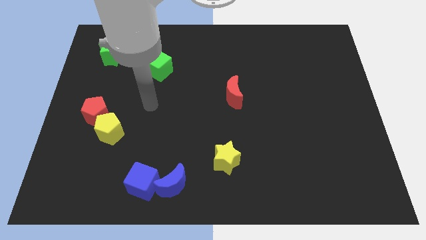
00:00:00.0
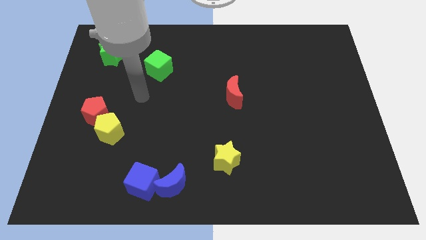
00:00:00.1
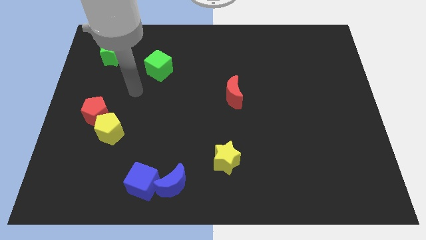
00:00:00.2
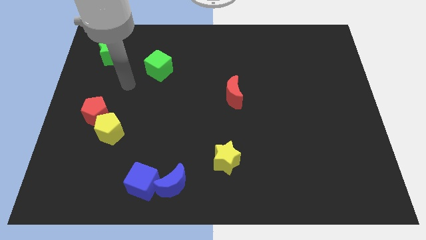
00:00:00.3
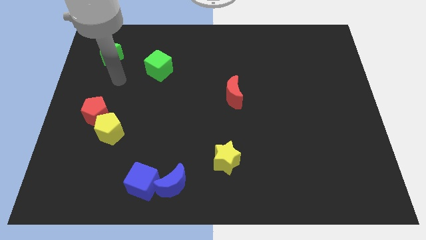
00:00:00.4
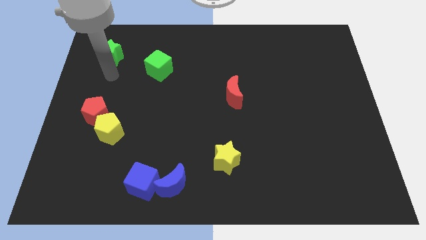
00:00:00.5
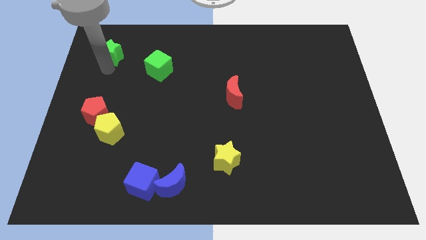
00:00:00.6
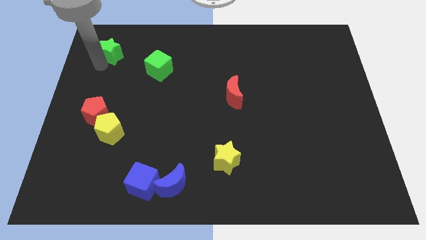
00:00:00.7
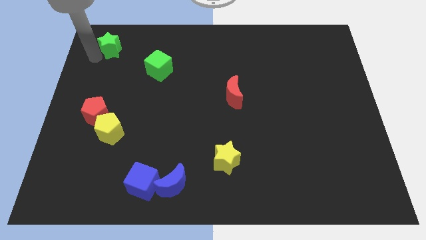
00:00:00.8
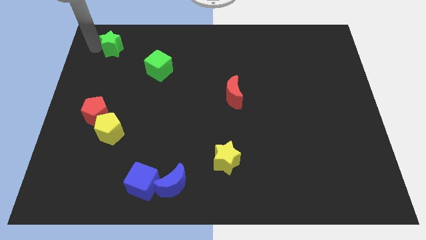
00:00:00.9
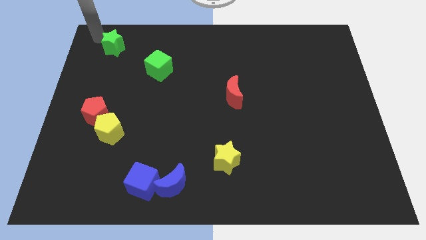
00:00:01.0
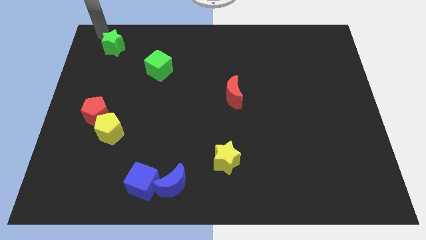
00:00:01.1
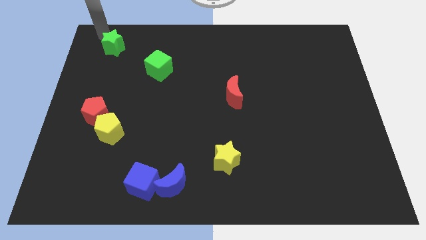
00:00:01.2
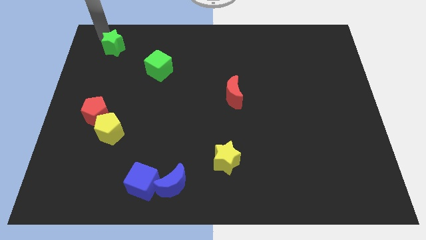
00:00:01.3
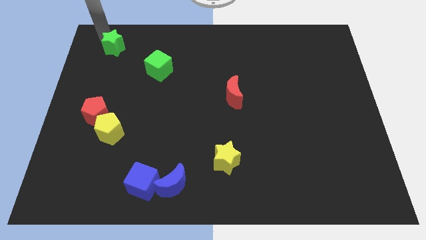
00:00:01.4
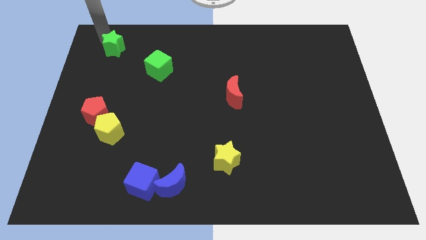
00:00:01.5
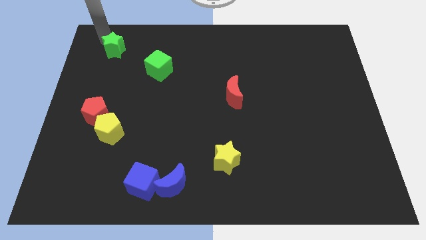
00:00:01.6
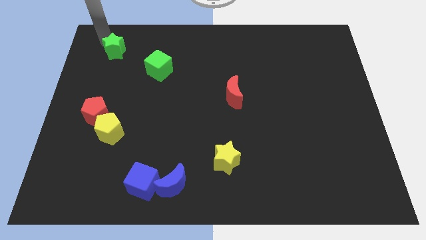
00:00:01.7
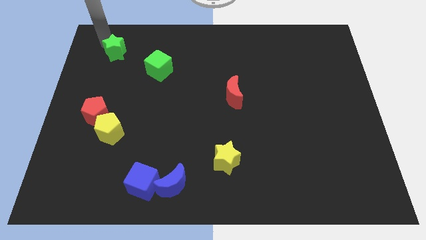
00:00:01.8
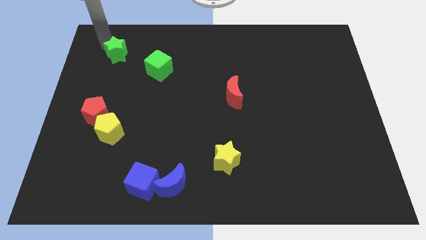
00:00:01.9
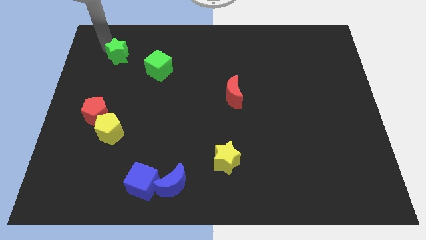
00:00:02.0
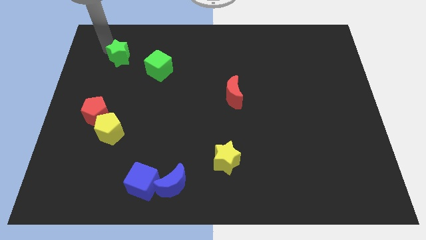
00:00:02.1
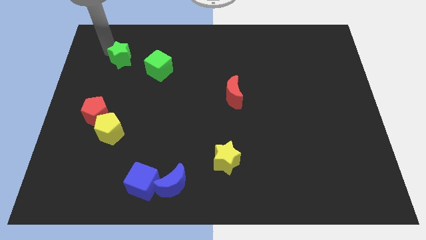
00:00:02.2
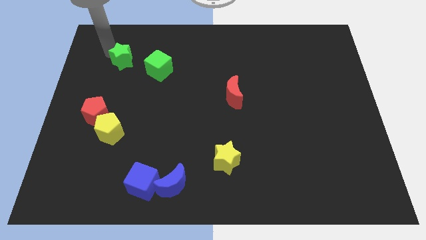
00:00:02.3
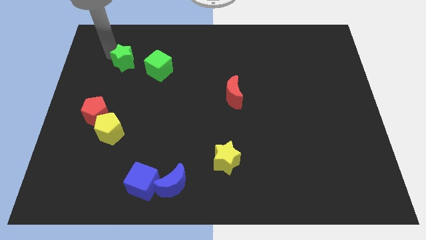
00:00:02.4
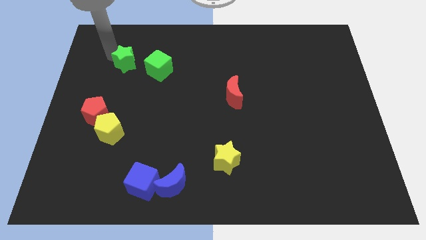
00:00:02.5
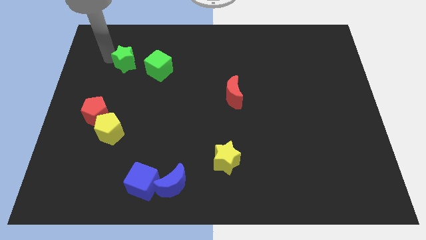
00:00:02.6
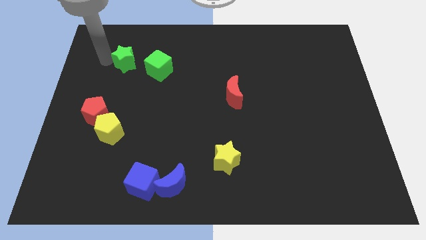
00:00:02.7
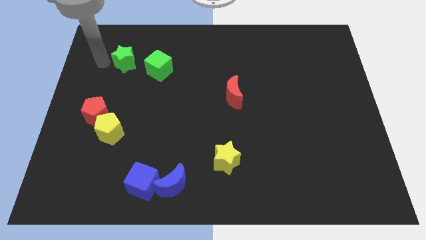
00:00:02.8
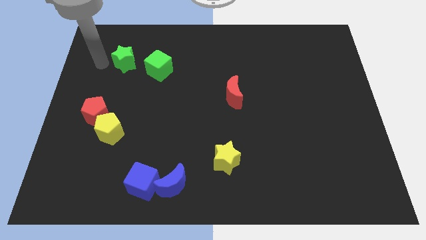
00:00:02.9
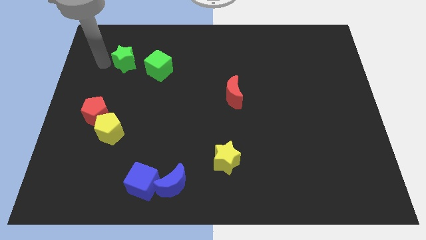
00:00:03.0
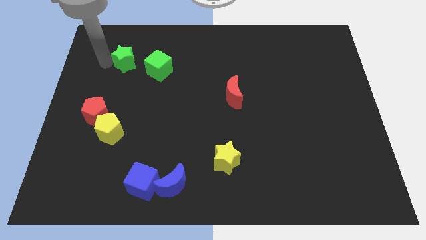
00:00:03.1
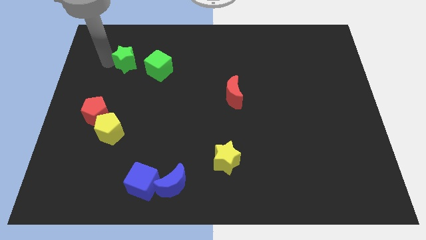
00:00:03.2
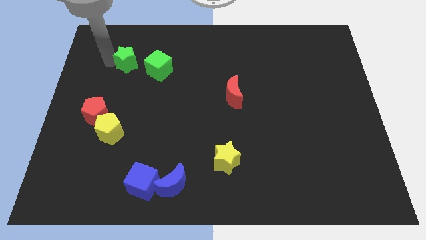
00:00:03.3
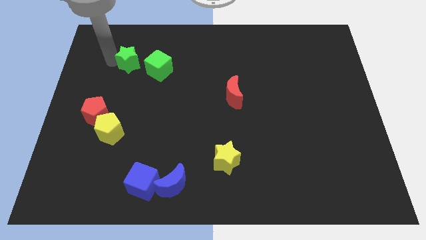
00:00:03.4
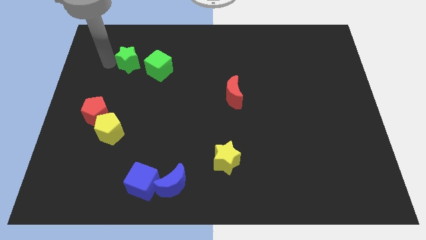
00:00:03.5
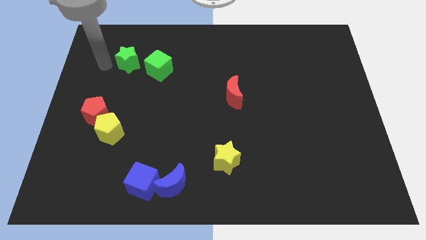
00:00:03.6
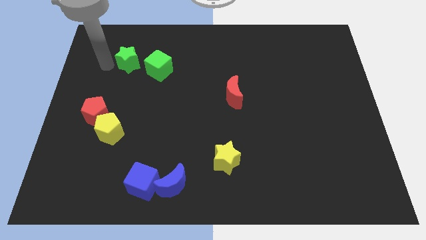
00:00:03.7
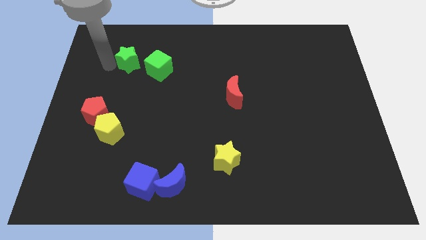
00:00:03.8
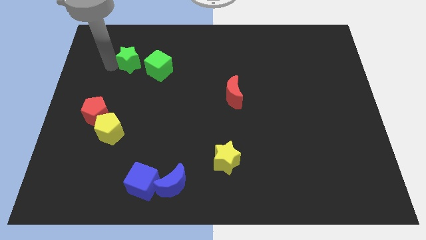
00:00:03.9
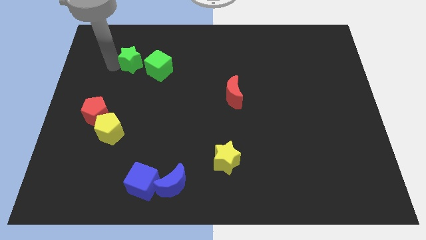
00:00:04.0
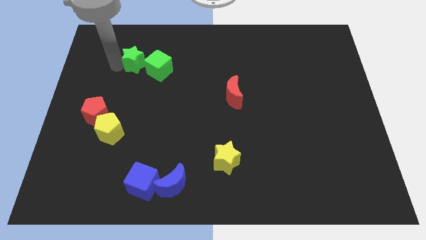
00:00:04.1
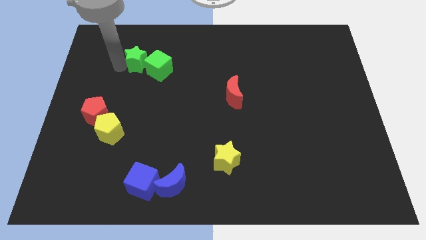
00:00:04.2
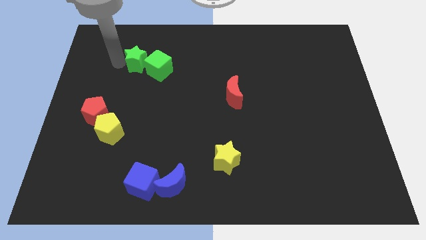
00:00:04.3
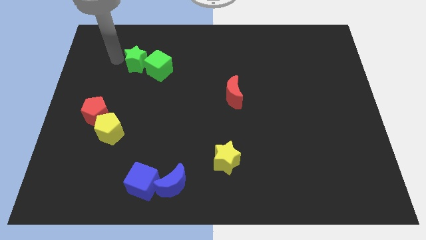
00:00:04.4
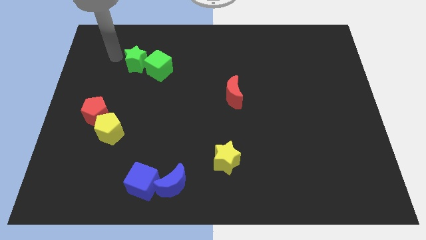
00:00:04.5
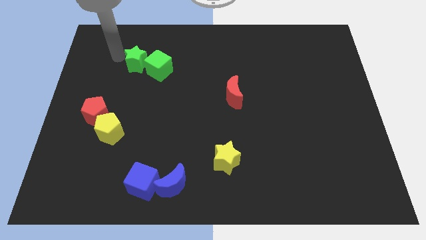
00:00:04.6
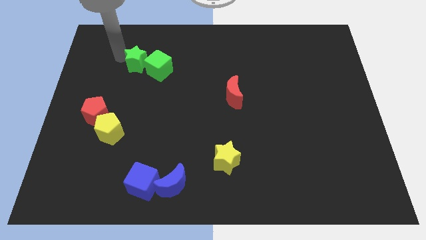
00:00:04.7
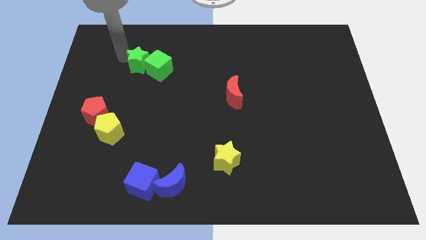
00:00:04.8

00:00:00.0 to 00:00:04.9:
move the green star to the green cube

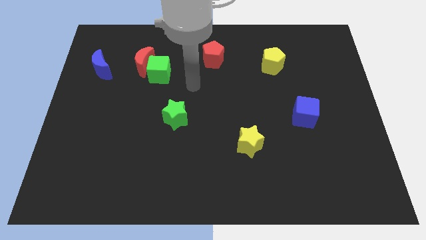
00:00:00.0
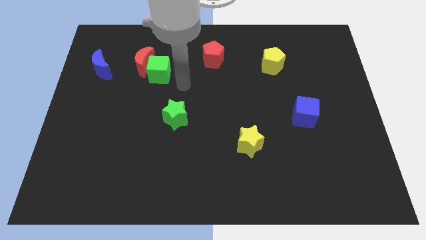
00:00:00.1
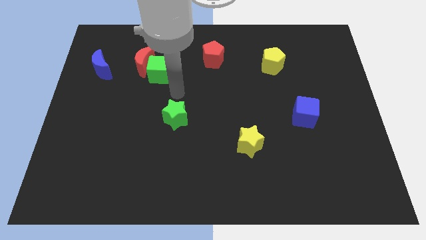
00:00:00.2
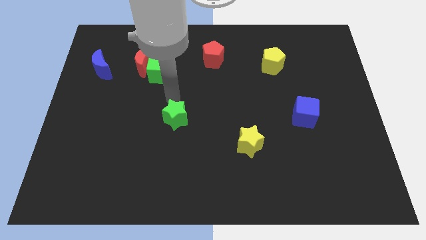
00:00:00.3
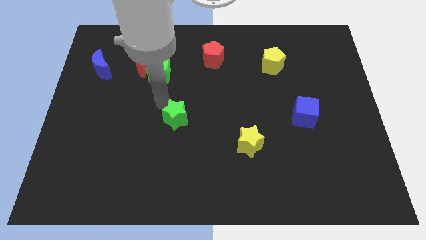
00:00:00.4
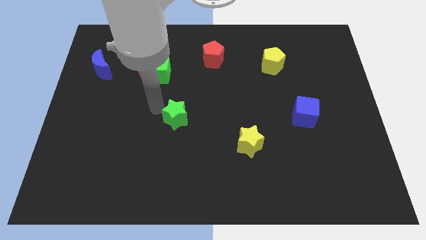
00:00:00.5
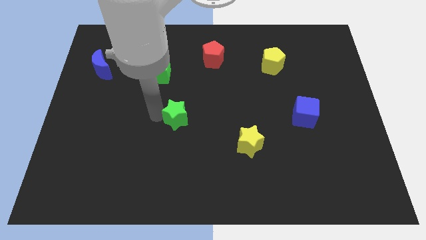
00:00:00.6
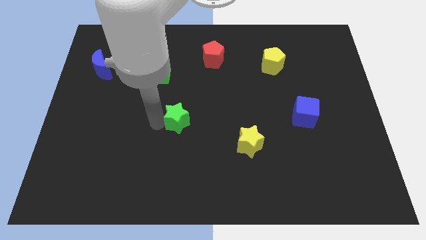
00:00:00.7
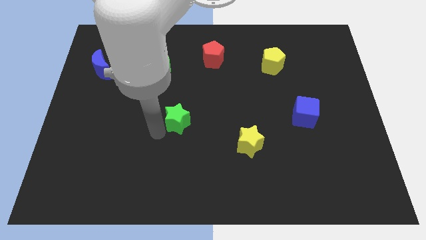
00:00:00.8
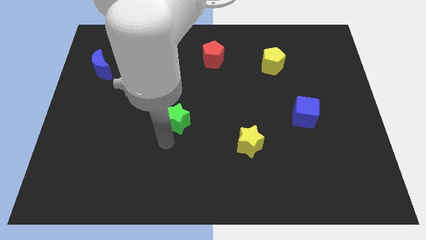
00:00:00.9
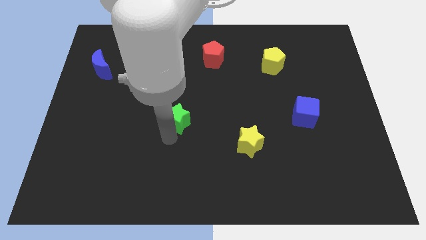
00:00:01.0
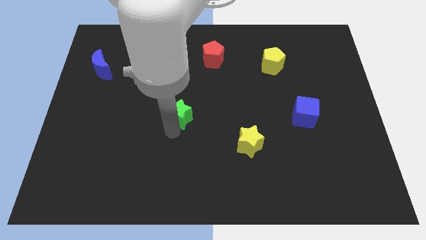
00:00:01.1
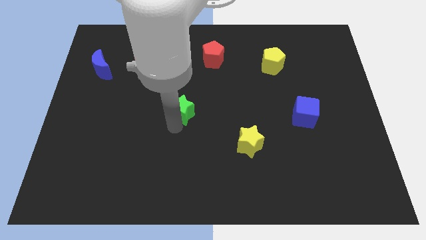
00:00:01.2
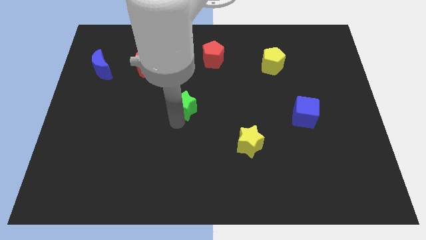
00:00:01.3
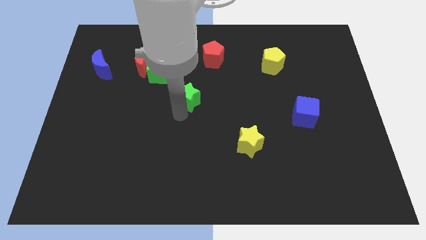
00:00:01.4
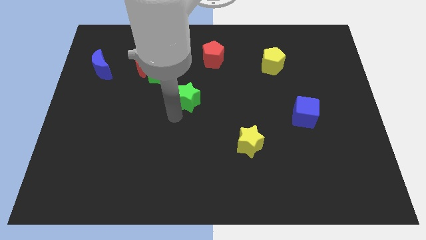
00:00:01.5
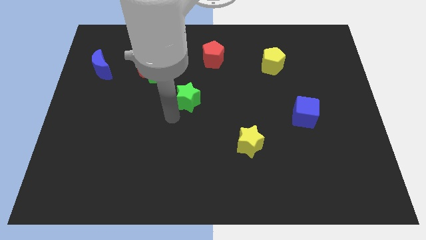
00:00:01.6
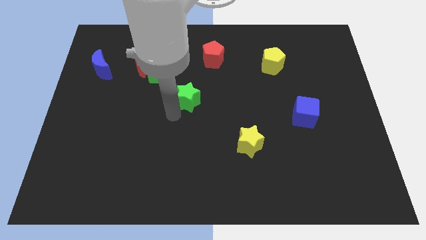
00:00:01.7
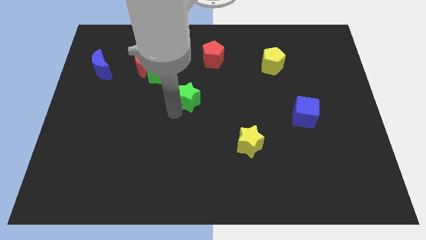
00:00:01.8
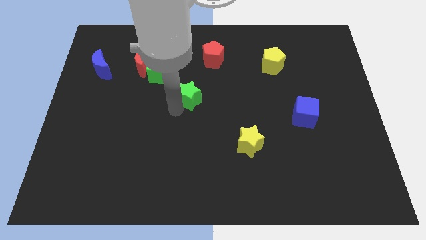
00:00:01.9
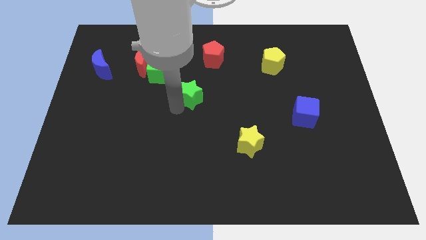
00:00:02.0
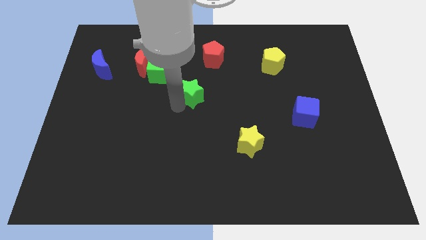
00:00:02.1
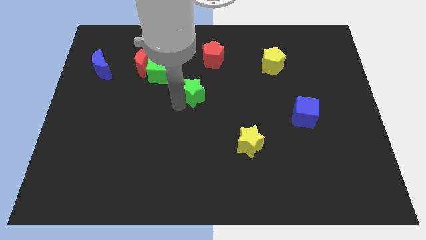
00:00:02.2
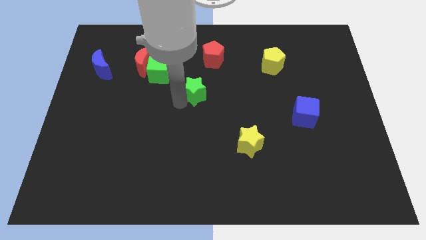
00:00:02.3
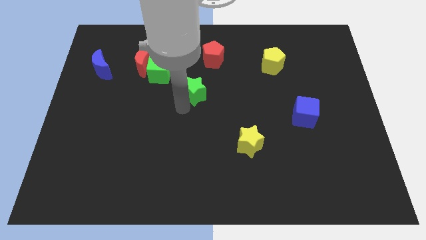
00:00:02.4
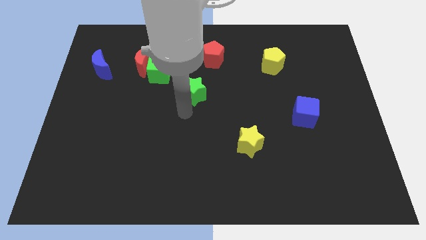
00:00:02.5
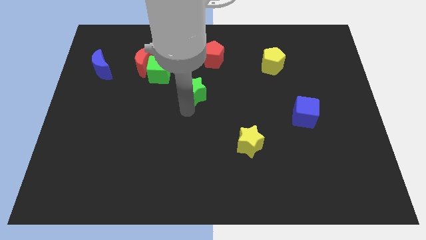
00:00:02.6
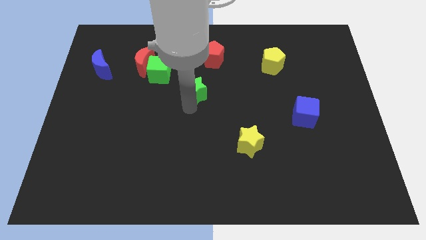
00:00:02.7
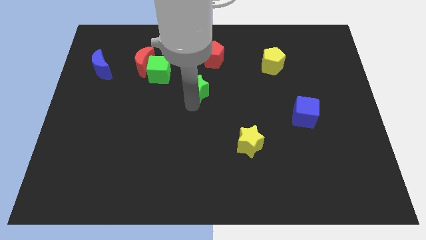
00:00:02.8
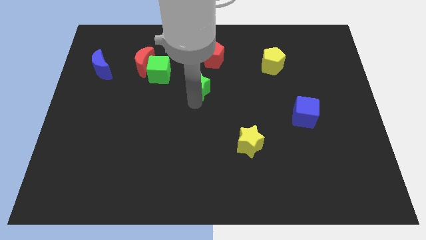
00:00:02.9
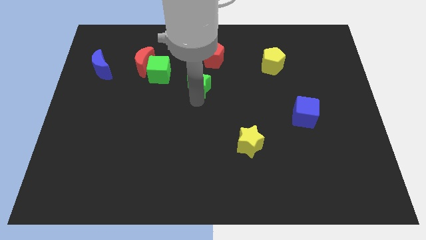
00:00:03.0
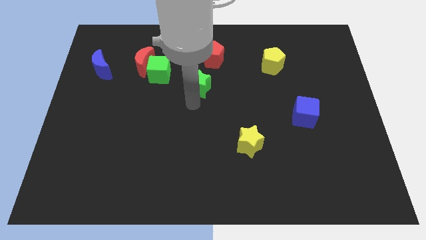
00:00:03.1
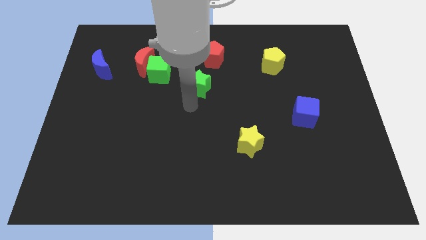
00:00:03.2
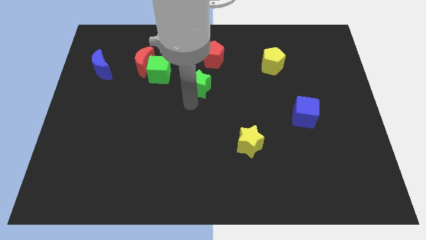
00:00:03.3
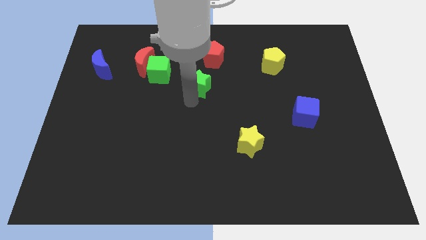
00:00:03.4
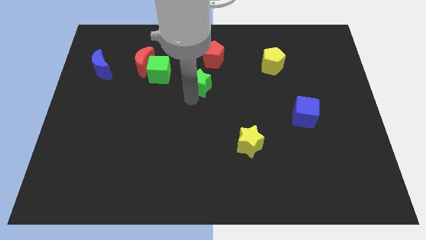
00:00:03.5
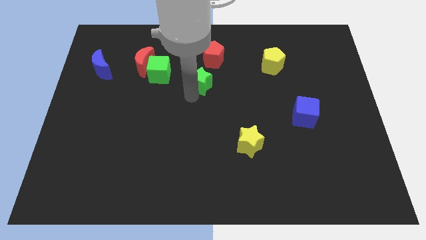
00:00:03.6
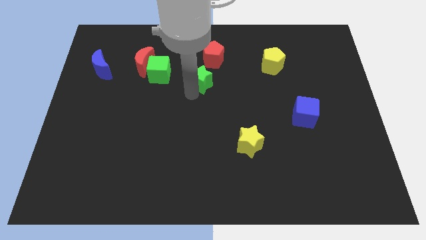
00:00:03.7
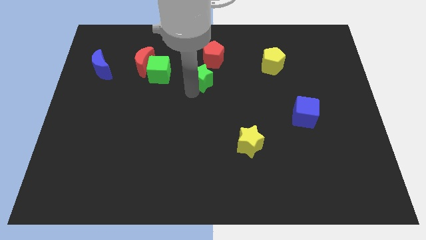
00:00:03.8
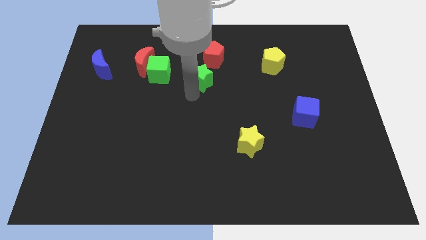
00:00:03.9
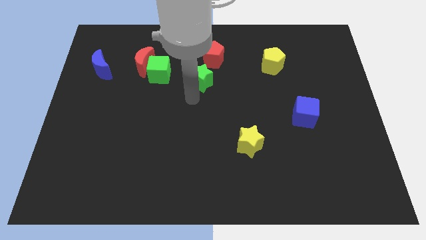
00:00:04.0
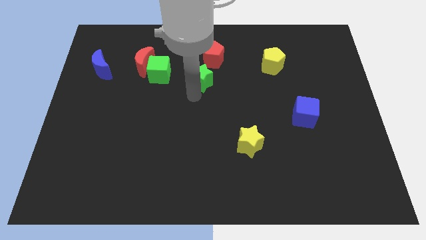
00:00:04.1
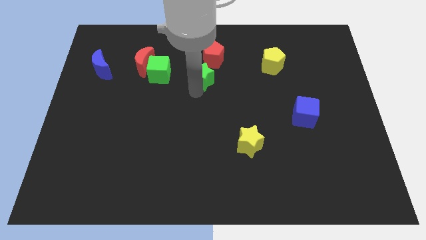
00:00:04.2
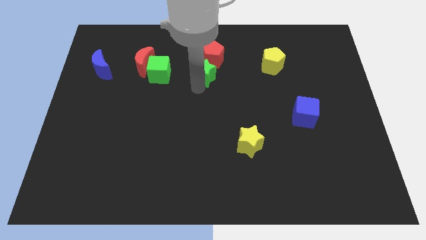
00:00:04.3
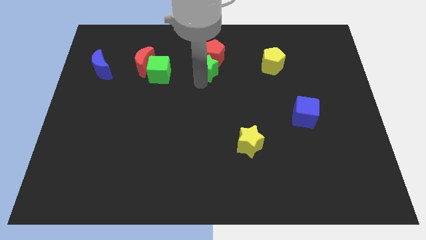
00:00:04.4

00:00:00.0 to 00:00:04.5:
put the green star close to the red pentagon
